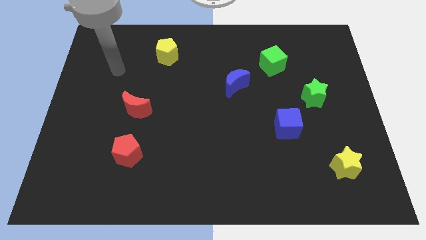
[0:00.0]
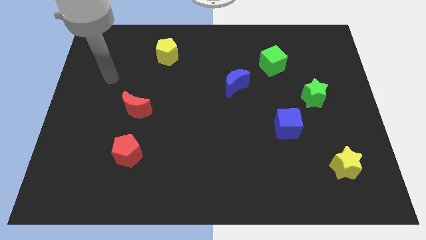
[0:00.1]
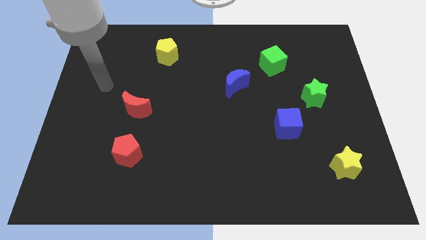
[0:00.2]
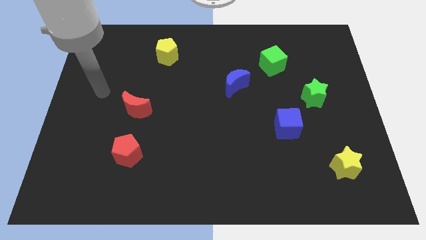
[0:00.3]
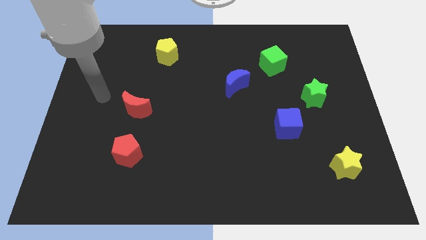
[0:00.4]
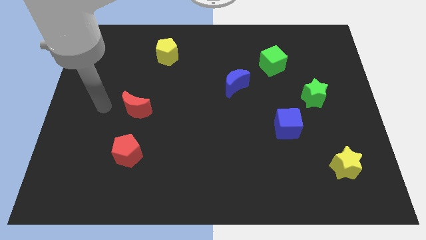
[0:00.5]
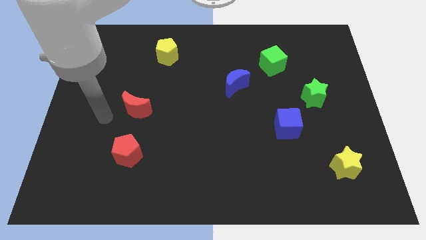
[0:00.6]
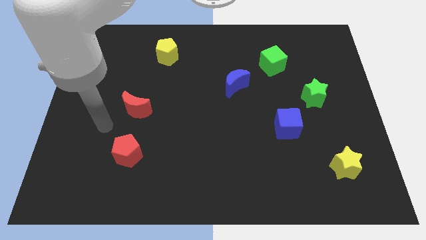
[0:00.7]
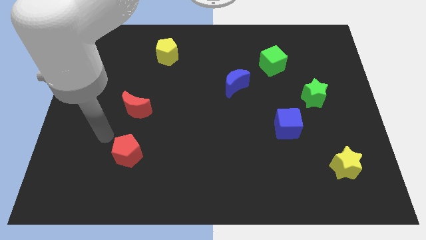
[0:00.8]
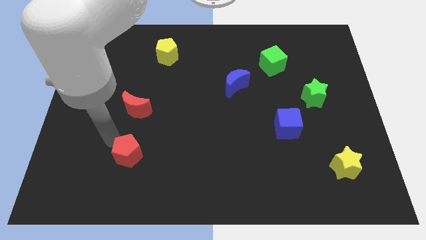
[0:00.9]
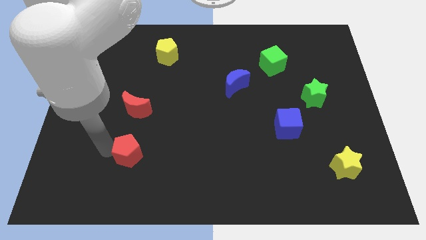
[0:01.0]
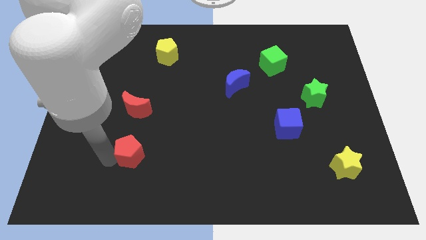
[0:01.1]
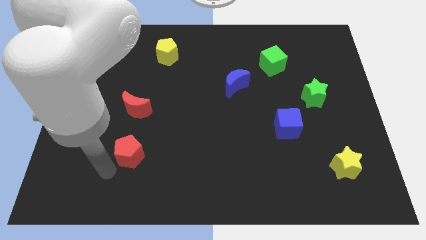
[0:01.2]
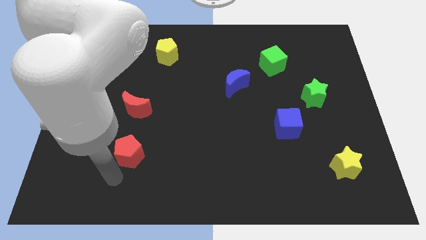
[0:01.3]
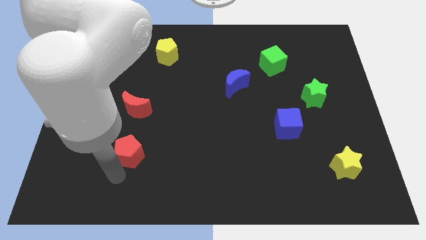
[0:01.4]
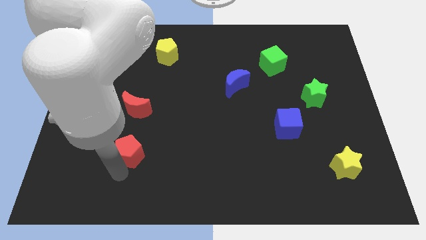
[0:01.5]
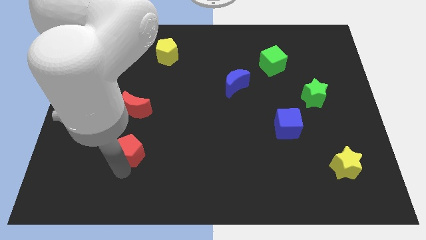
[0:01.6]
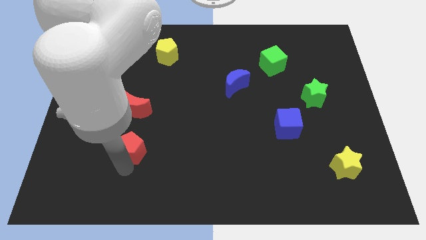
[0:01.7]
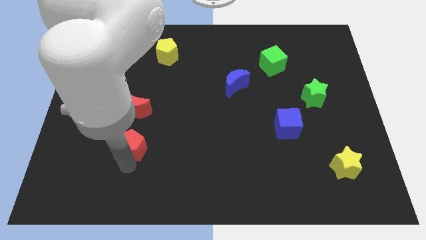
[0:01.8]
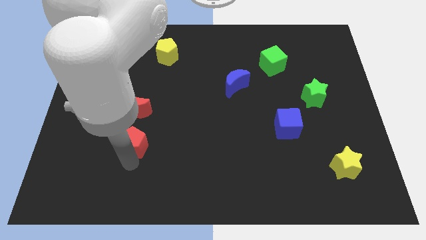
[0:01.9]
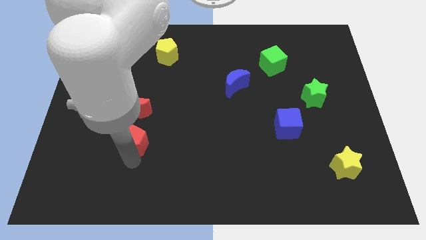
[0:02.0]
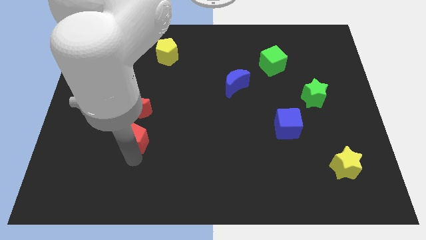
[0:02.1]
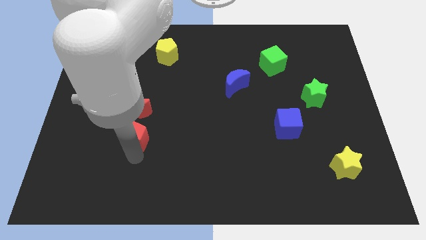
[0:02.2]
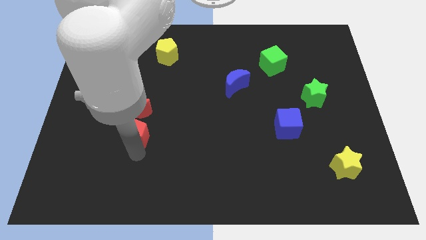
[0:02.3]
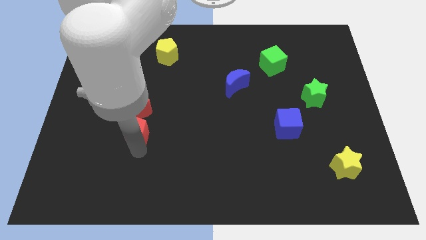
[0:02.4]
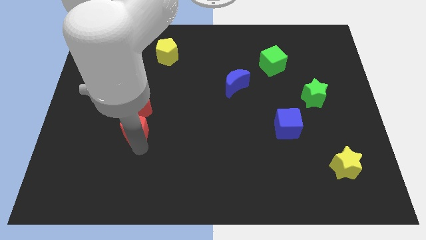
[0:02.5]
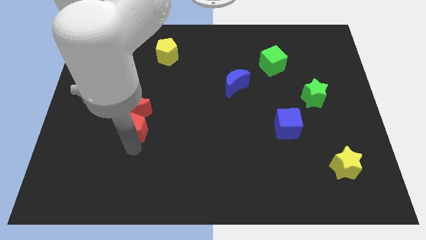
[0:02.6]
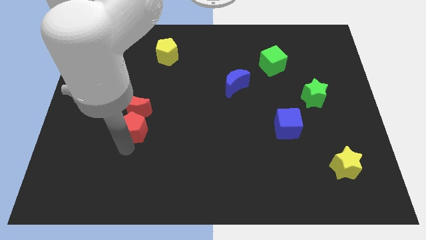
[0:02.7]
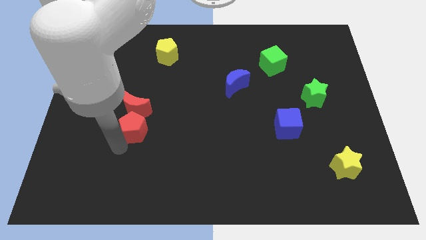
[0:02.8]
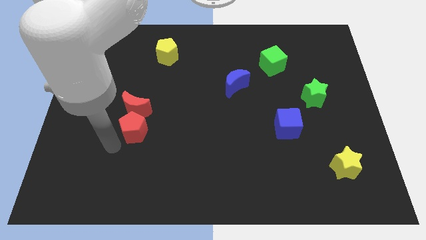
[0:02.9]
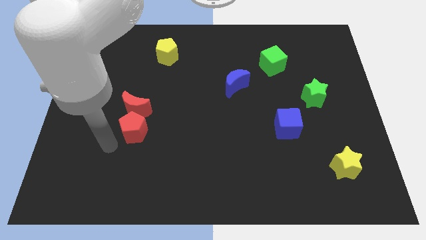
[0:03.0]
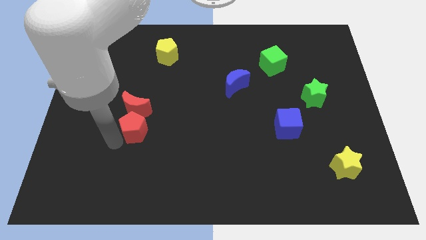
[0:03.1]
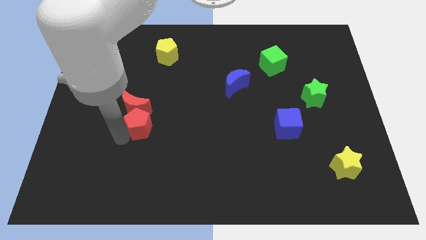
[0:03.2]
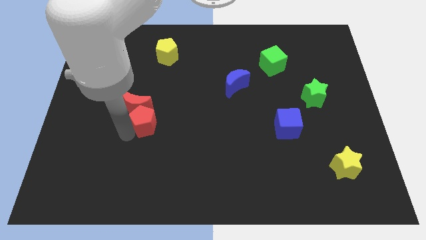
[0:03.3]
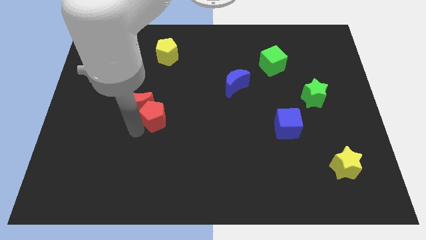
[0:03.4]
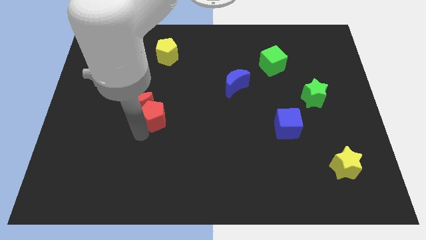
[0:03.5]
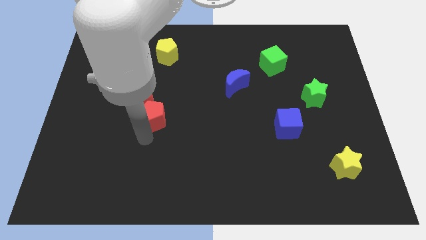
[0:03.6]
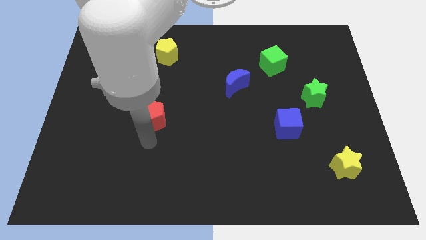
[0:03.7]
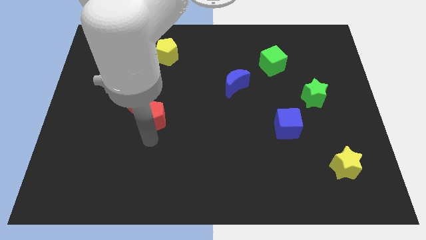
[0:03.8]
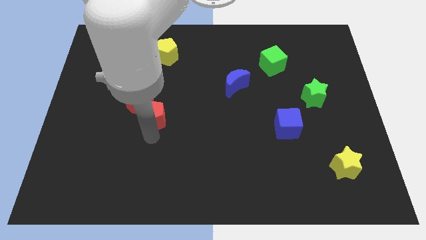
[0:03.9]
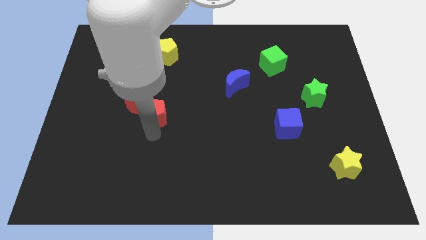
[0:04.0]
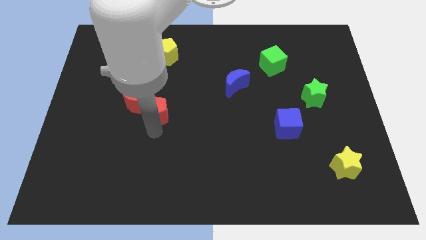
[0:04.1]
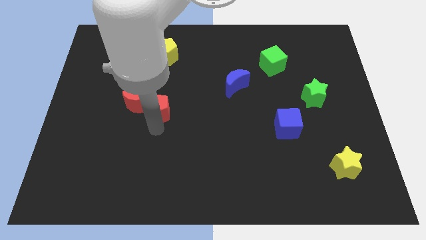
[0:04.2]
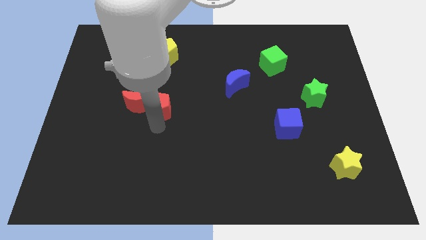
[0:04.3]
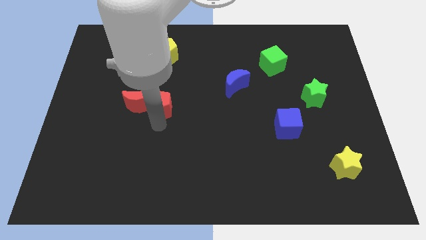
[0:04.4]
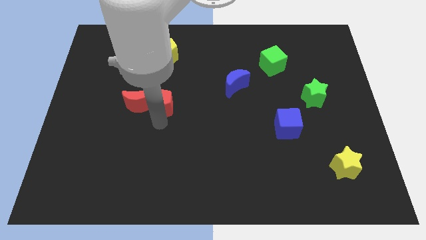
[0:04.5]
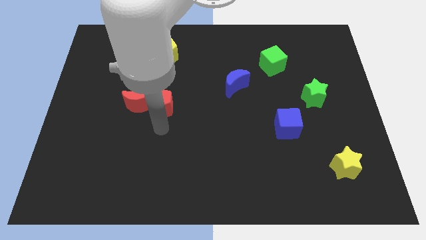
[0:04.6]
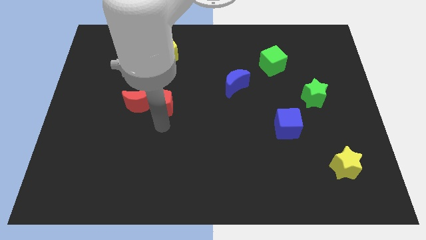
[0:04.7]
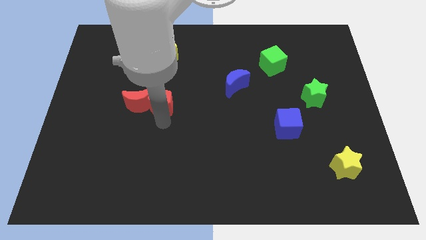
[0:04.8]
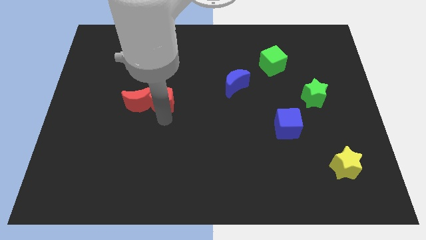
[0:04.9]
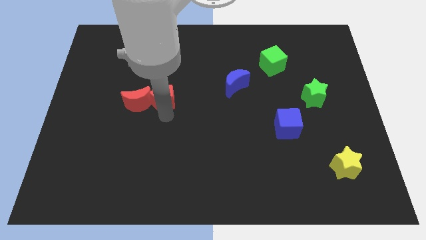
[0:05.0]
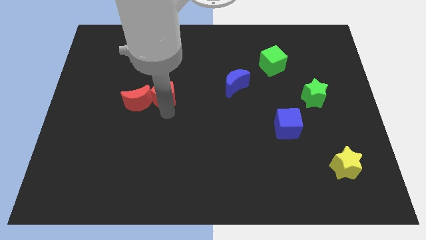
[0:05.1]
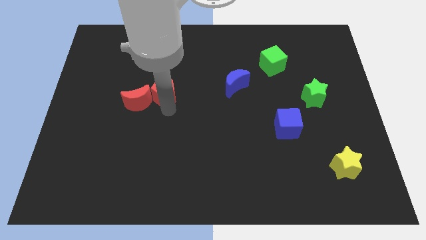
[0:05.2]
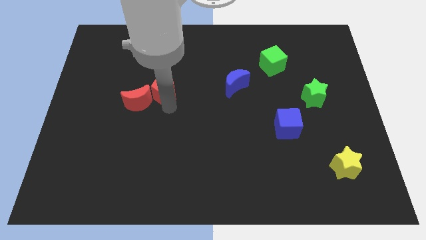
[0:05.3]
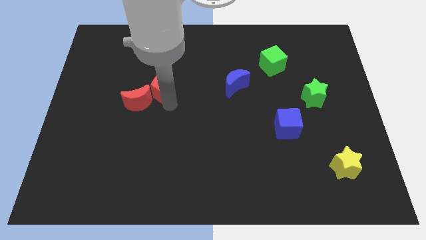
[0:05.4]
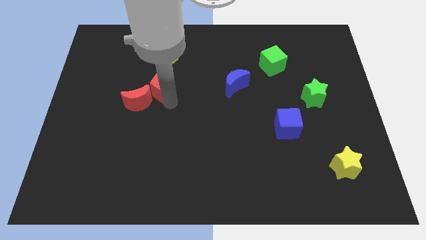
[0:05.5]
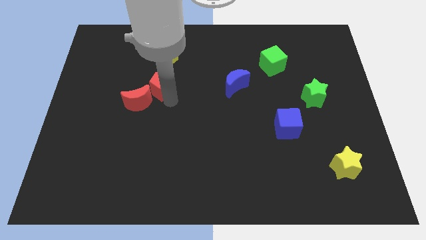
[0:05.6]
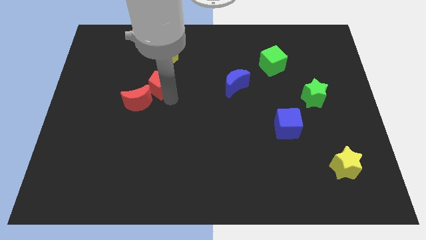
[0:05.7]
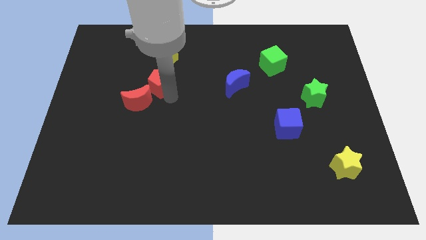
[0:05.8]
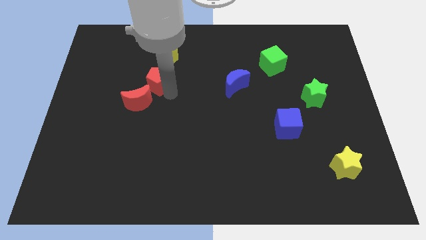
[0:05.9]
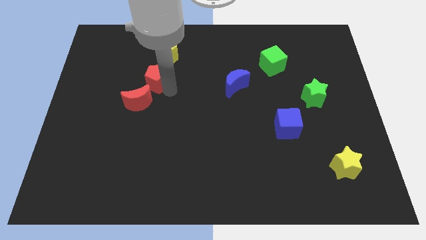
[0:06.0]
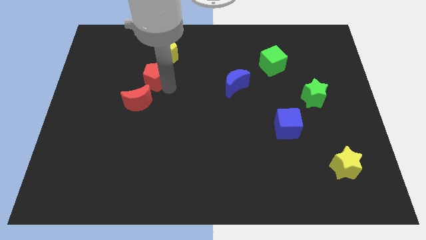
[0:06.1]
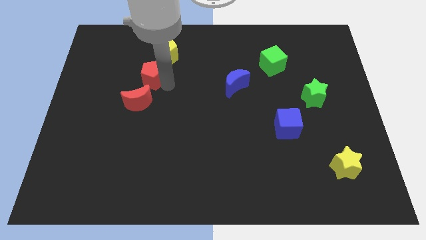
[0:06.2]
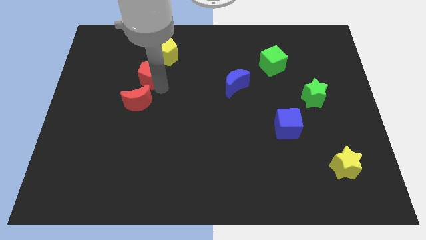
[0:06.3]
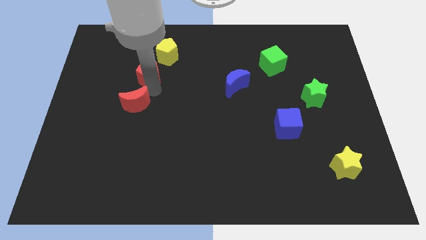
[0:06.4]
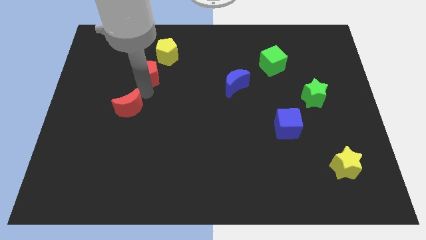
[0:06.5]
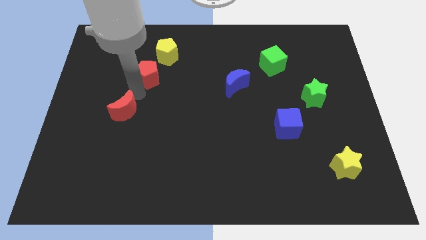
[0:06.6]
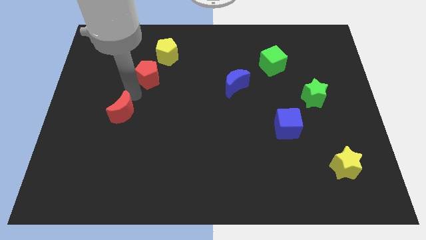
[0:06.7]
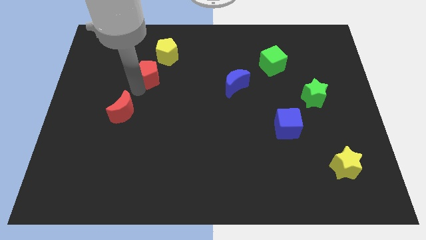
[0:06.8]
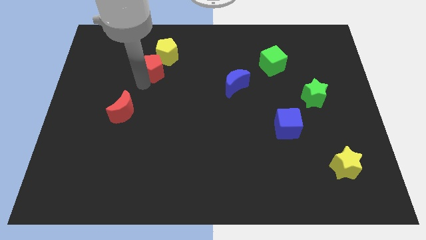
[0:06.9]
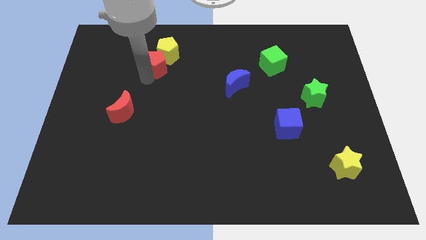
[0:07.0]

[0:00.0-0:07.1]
put the red pentagon towards the yellow pentagon
